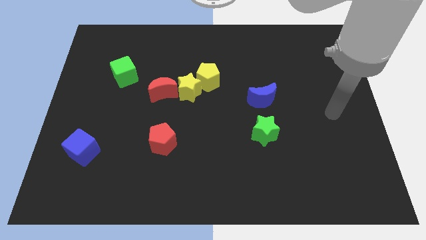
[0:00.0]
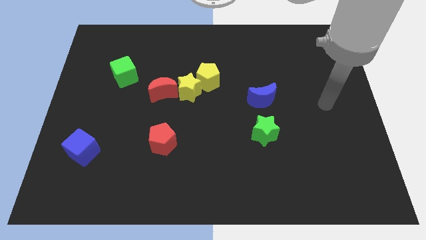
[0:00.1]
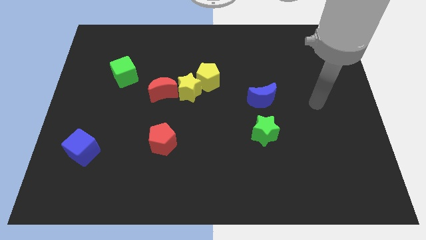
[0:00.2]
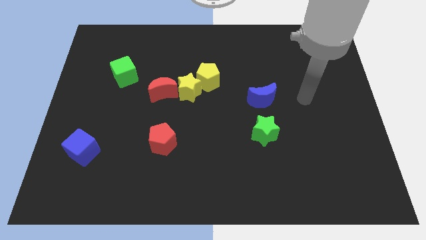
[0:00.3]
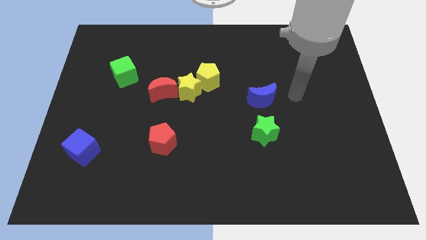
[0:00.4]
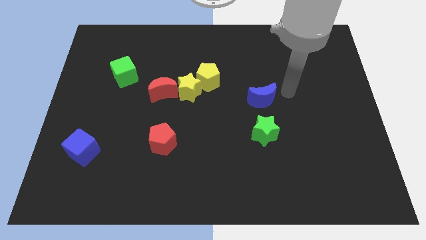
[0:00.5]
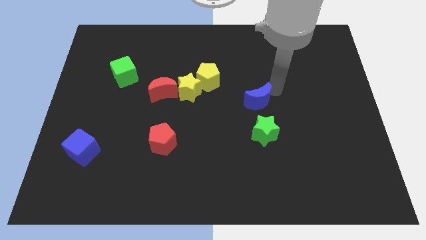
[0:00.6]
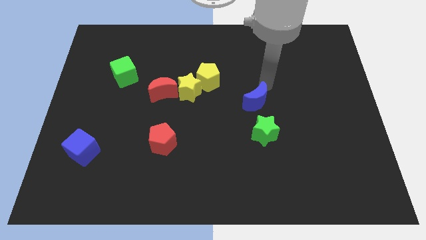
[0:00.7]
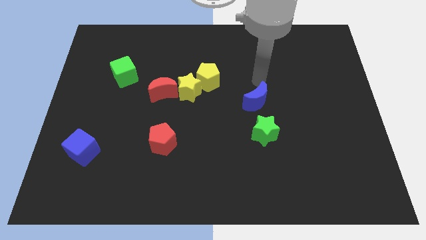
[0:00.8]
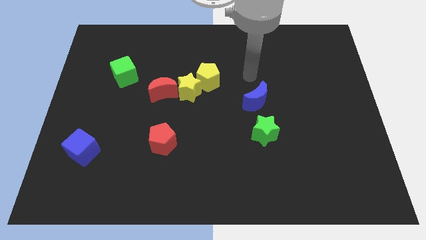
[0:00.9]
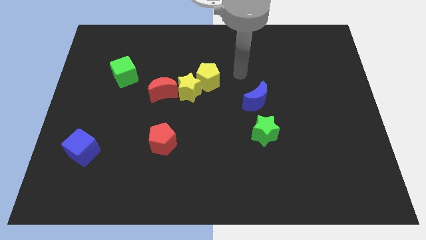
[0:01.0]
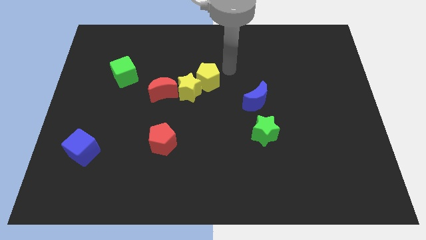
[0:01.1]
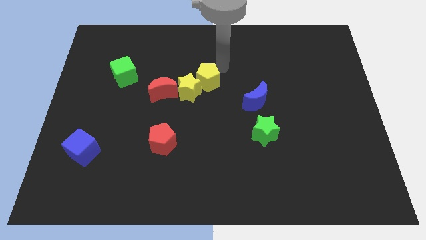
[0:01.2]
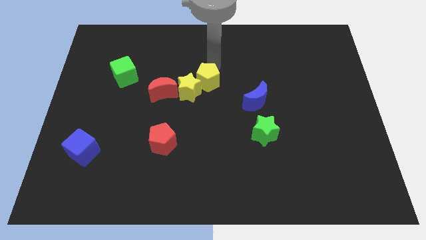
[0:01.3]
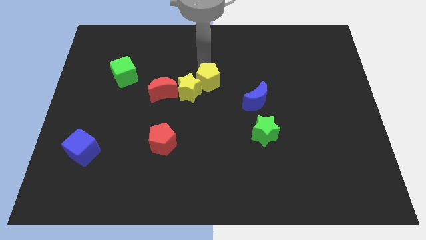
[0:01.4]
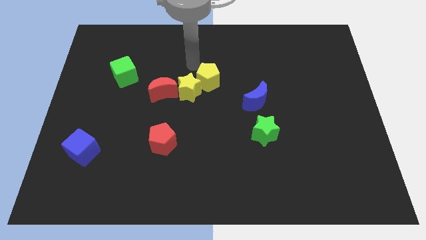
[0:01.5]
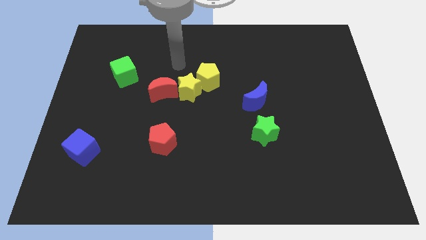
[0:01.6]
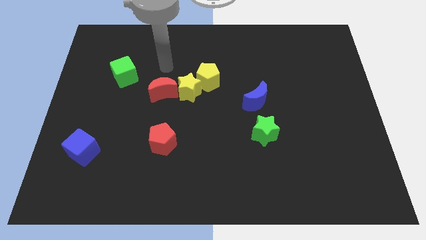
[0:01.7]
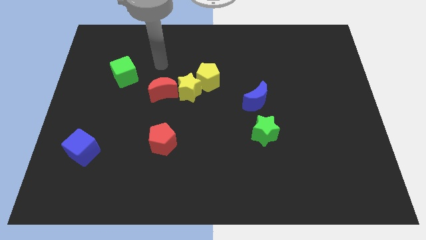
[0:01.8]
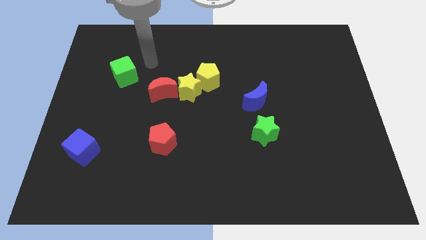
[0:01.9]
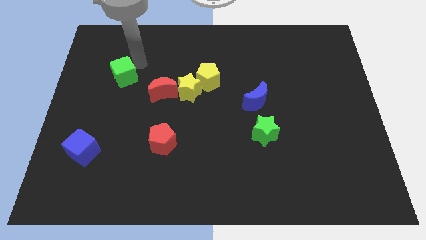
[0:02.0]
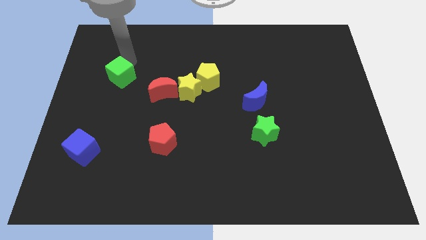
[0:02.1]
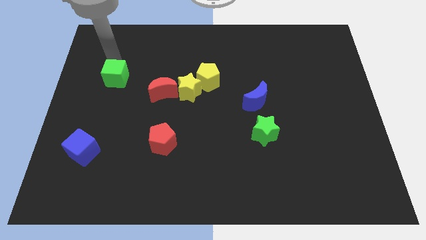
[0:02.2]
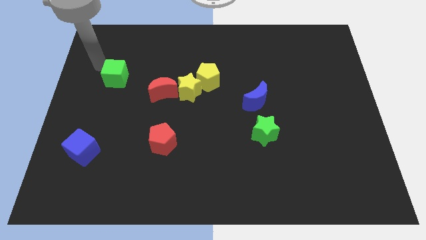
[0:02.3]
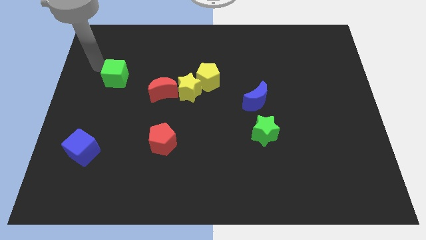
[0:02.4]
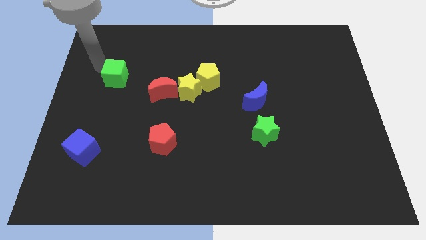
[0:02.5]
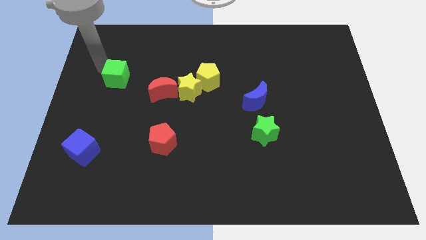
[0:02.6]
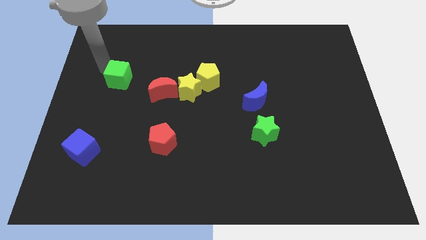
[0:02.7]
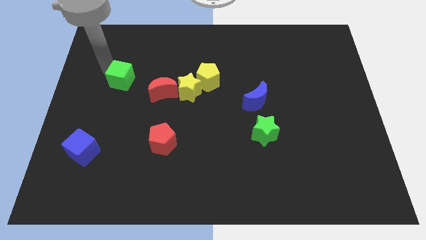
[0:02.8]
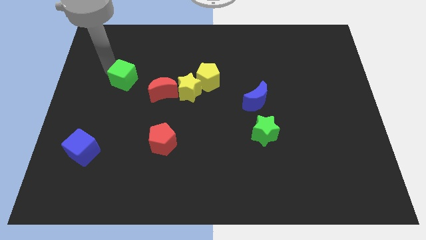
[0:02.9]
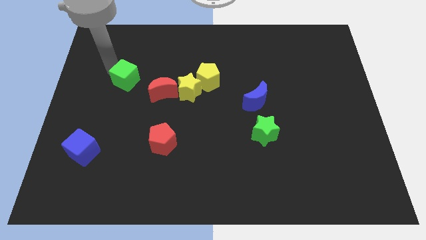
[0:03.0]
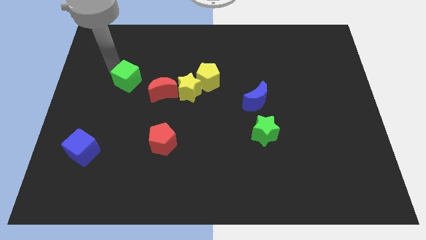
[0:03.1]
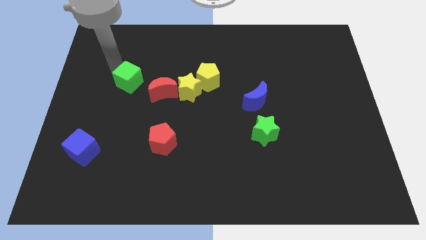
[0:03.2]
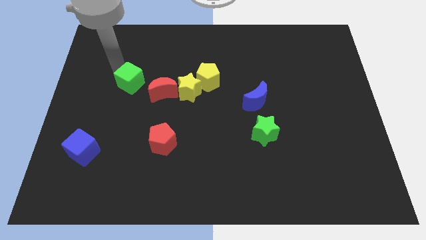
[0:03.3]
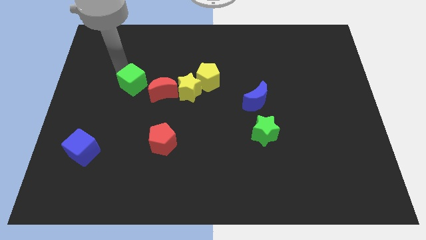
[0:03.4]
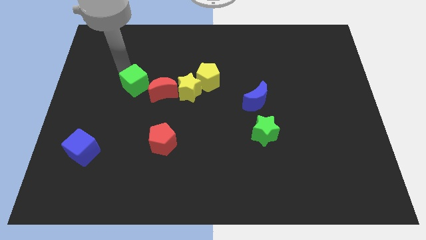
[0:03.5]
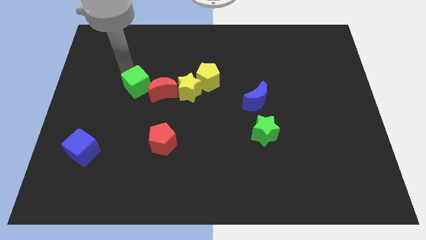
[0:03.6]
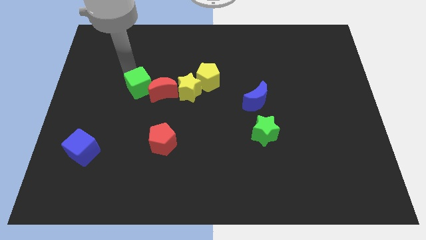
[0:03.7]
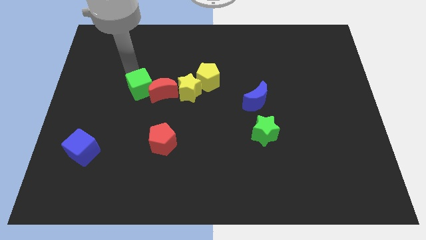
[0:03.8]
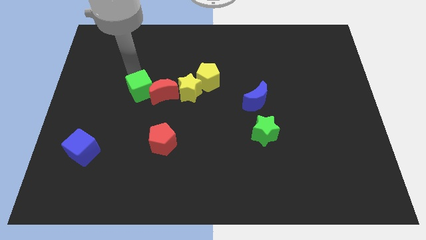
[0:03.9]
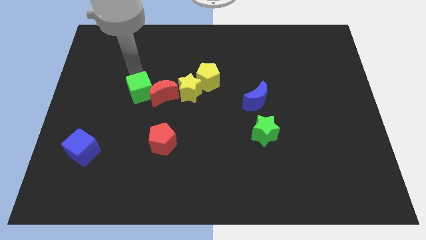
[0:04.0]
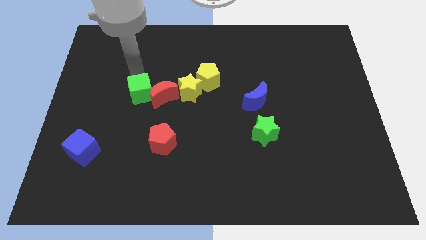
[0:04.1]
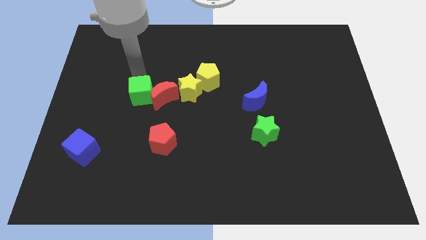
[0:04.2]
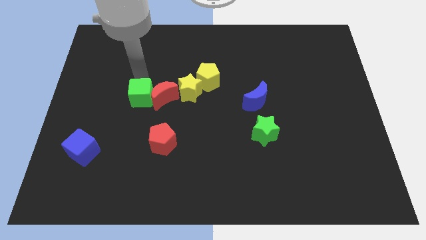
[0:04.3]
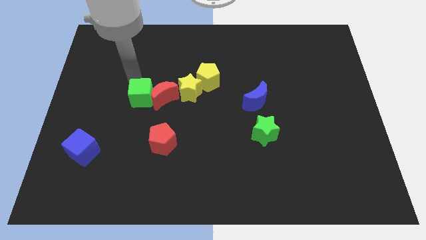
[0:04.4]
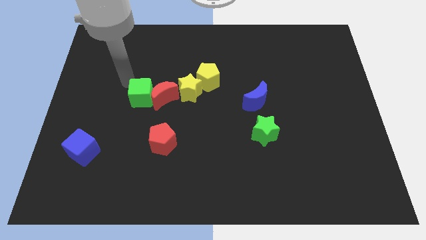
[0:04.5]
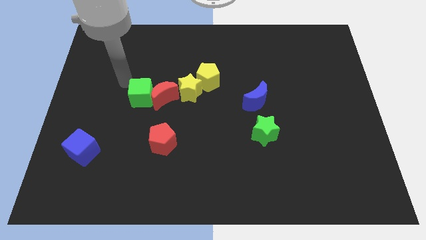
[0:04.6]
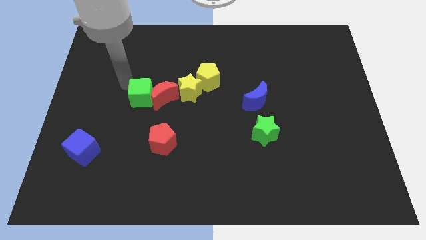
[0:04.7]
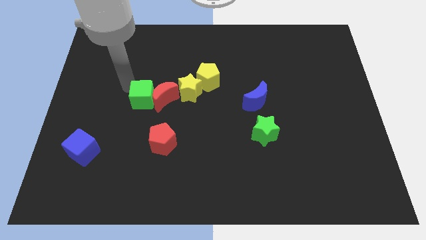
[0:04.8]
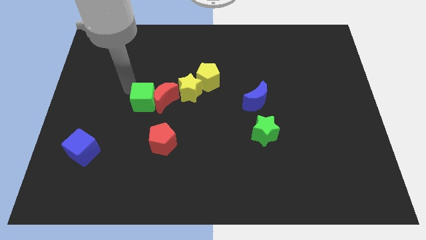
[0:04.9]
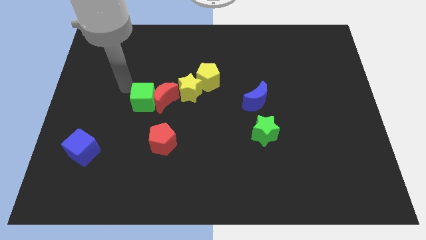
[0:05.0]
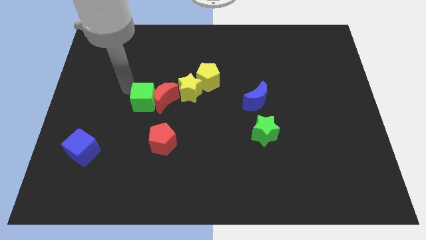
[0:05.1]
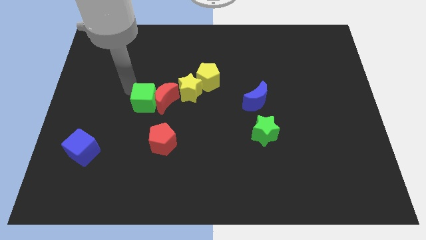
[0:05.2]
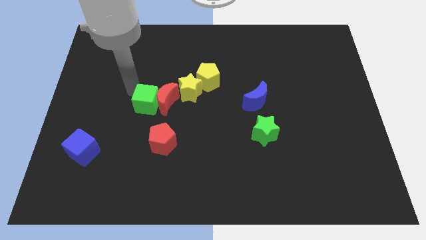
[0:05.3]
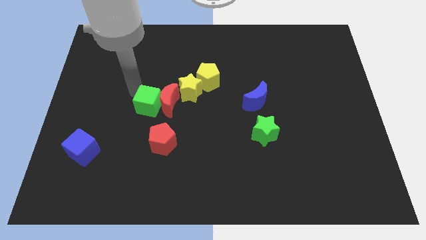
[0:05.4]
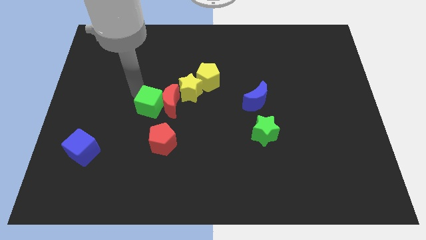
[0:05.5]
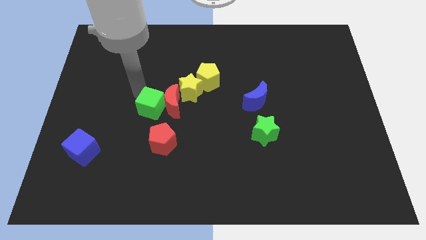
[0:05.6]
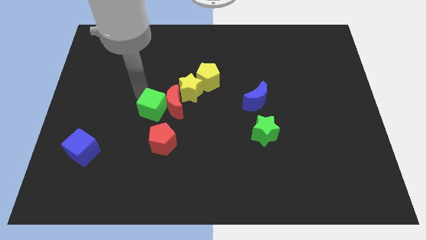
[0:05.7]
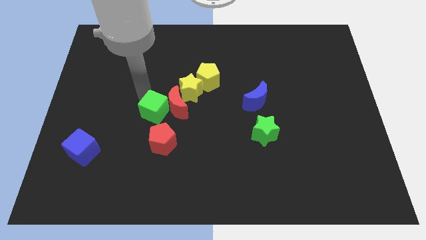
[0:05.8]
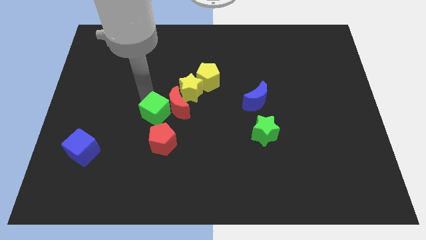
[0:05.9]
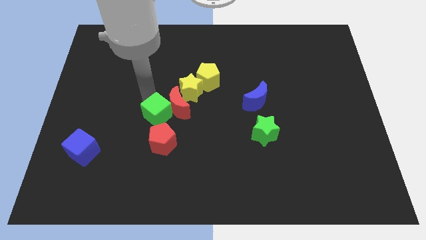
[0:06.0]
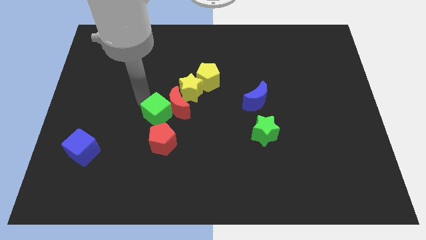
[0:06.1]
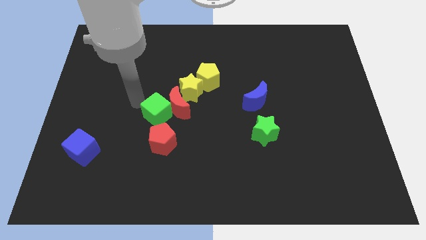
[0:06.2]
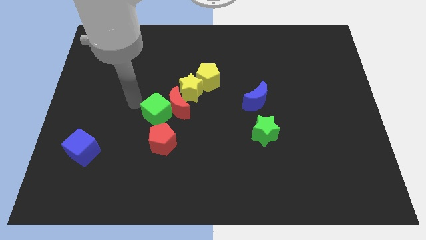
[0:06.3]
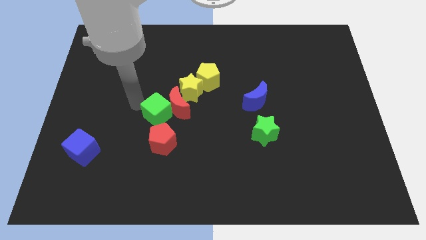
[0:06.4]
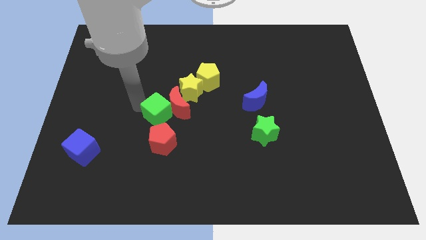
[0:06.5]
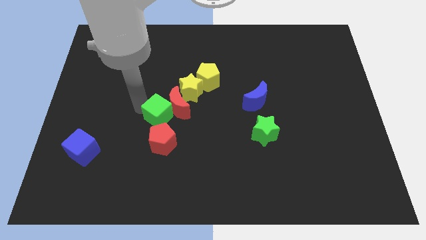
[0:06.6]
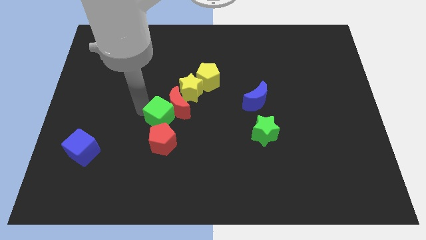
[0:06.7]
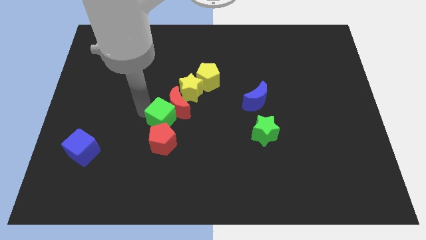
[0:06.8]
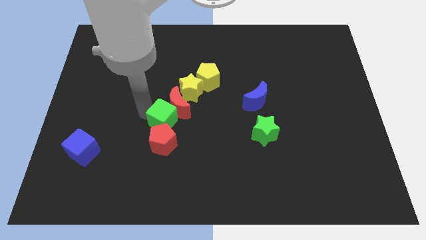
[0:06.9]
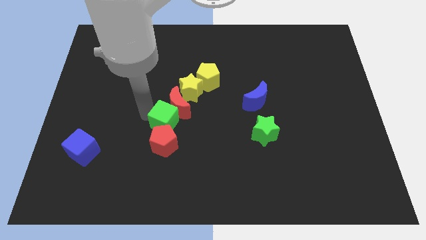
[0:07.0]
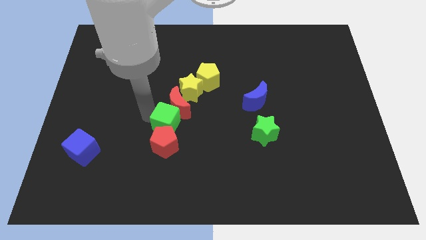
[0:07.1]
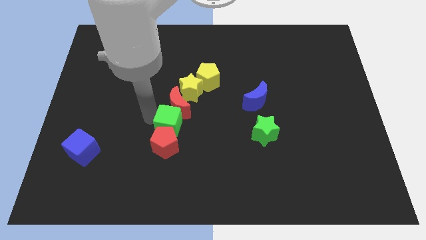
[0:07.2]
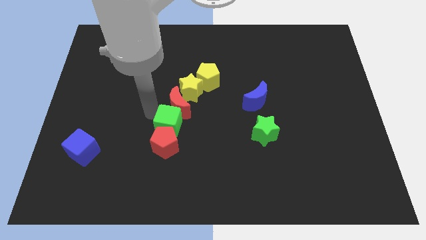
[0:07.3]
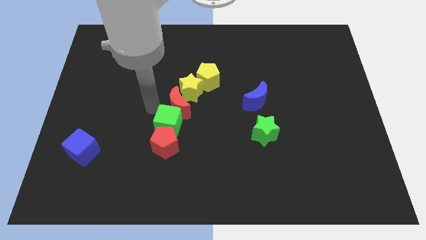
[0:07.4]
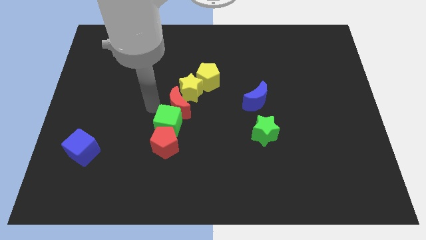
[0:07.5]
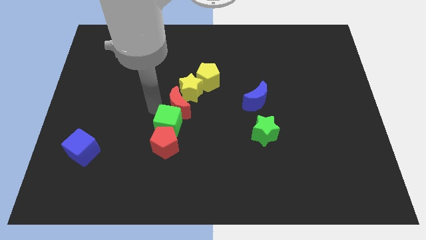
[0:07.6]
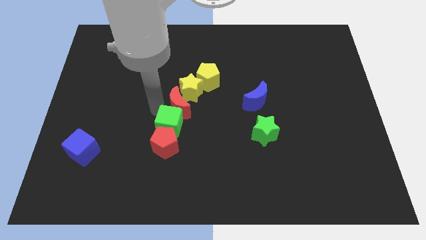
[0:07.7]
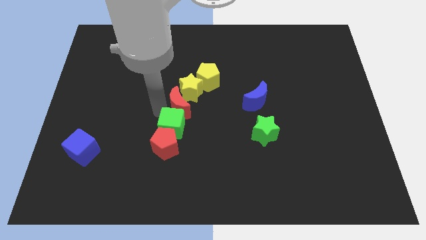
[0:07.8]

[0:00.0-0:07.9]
move the green cube downwards and then right
